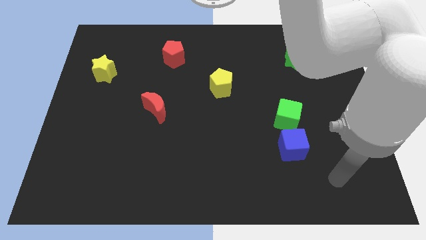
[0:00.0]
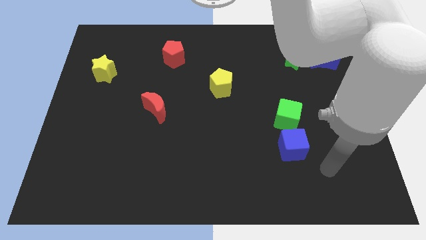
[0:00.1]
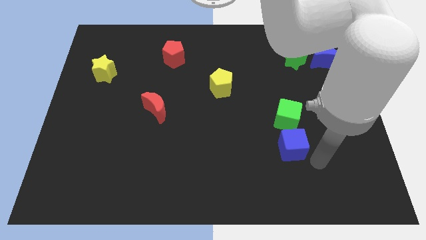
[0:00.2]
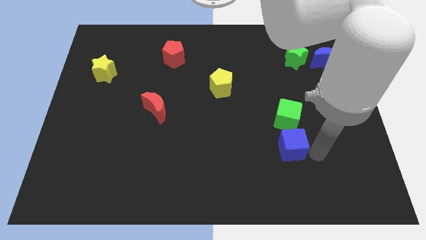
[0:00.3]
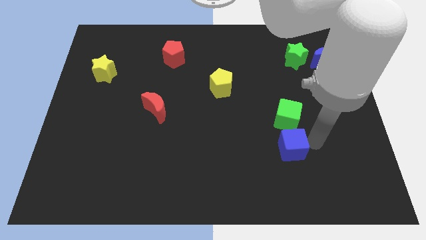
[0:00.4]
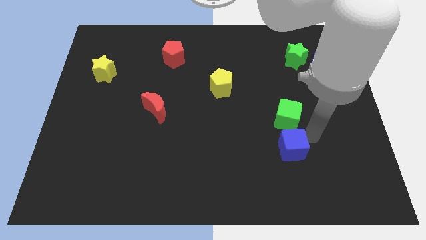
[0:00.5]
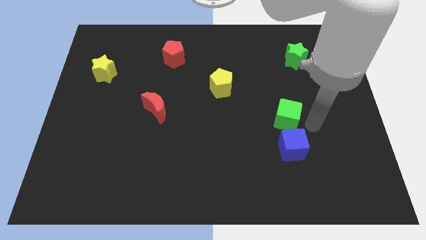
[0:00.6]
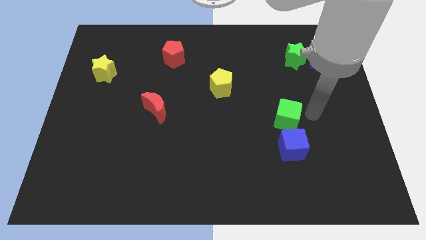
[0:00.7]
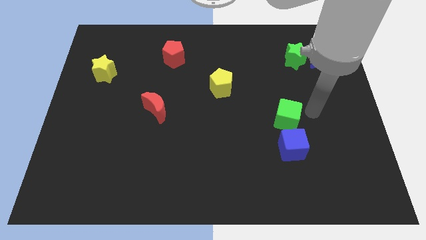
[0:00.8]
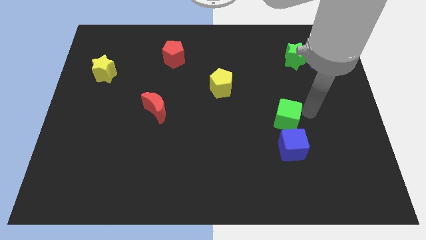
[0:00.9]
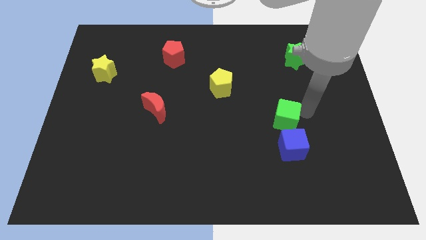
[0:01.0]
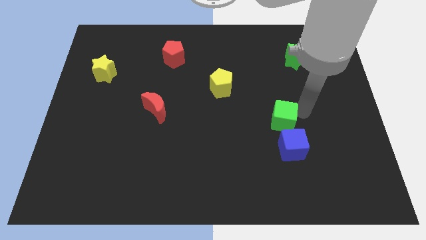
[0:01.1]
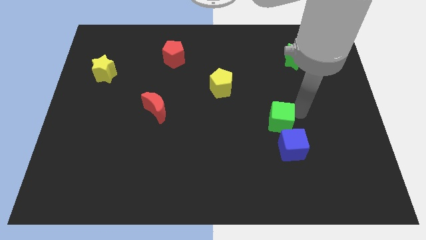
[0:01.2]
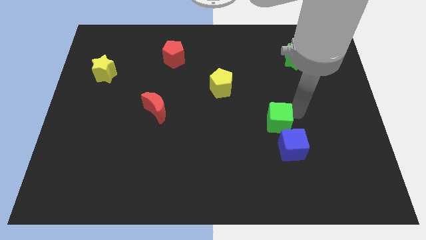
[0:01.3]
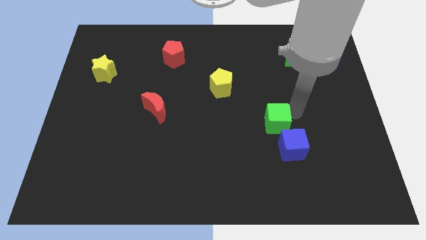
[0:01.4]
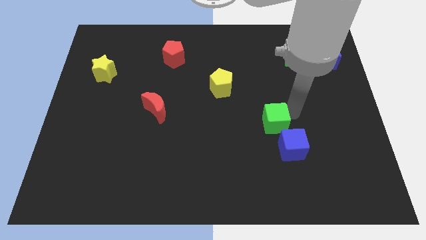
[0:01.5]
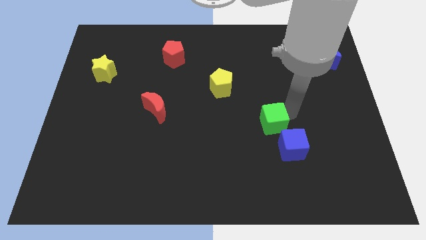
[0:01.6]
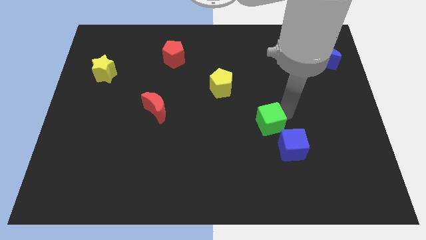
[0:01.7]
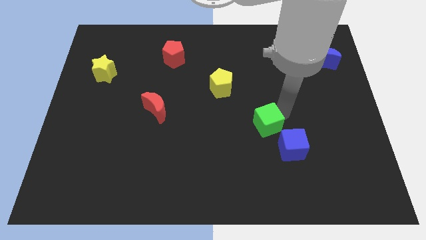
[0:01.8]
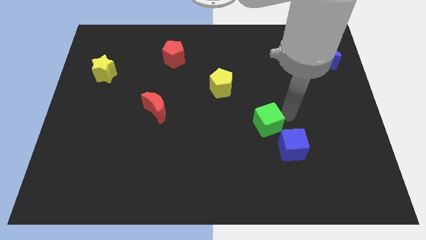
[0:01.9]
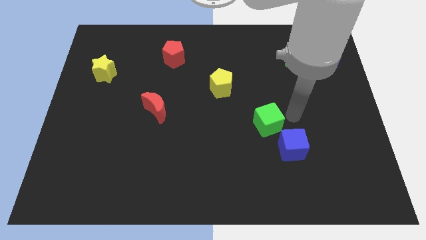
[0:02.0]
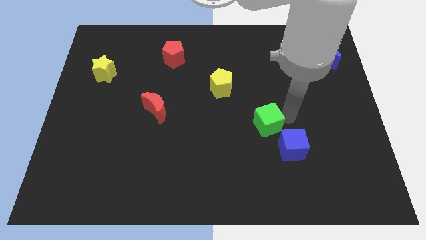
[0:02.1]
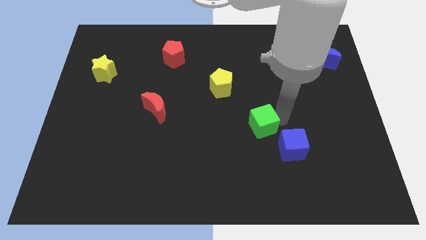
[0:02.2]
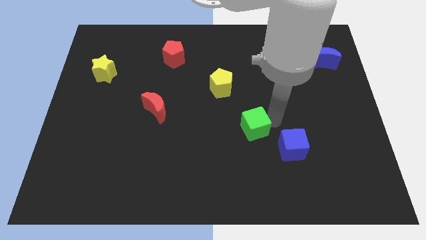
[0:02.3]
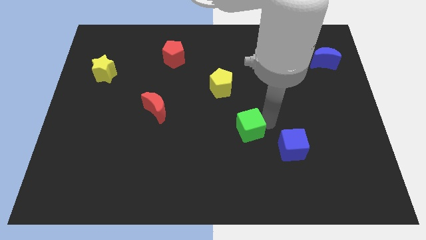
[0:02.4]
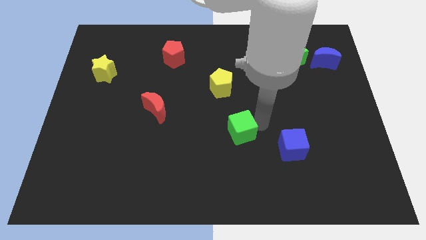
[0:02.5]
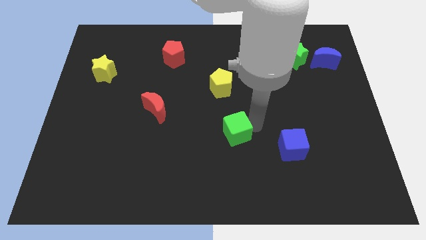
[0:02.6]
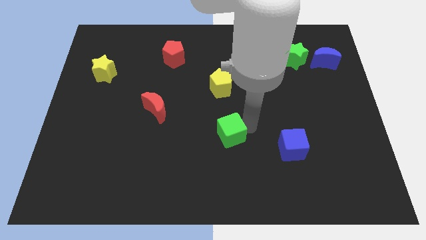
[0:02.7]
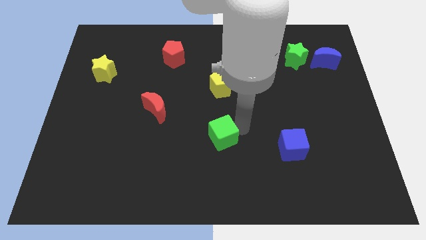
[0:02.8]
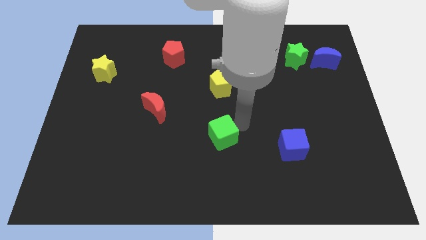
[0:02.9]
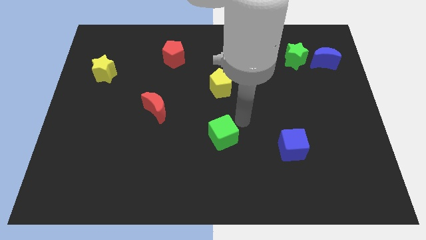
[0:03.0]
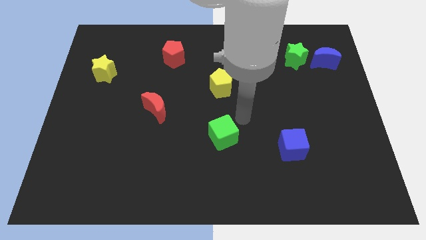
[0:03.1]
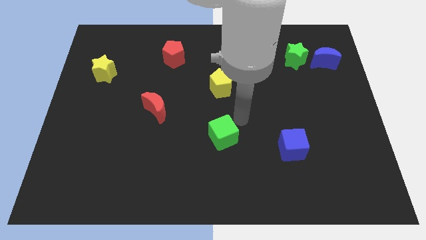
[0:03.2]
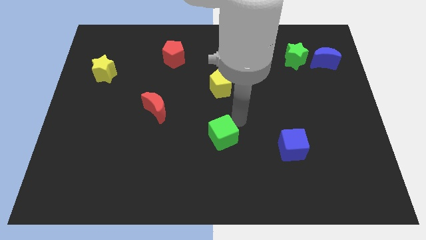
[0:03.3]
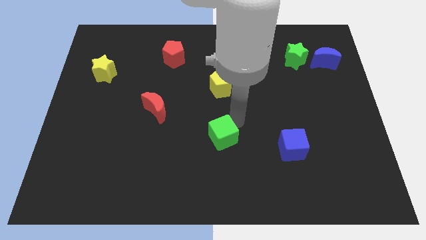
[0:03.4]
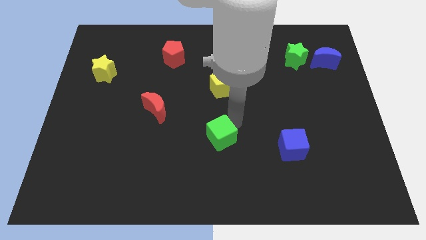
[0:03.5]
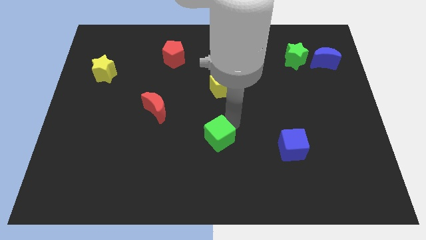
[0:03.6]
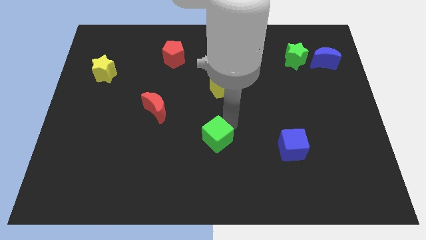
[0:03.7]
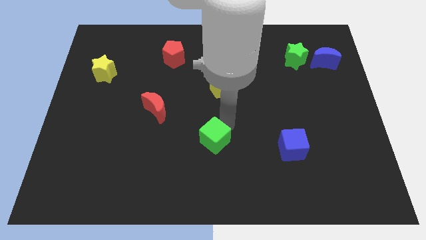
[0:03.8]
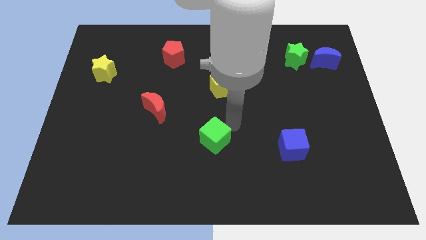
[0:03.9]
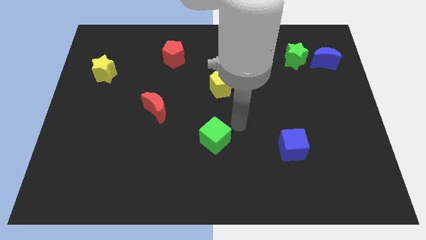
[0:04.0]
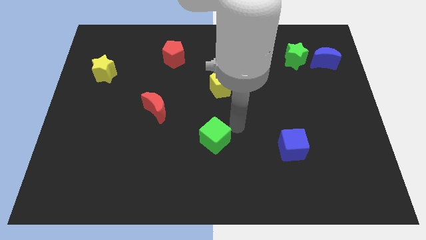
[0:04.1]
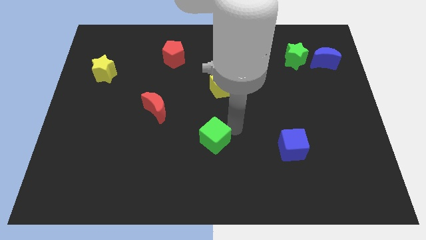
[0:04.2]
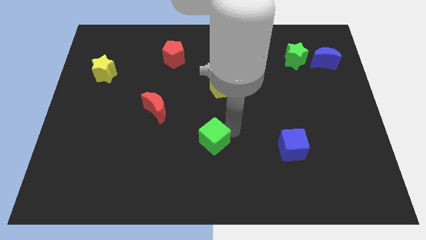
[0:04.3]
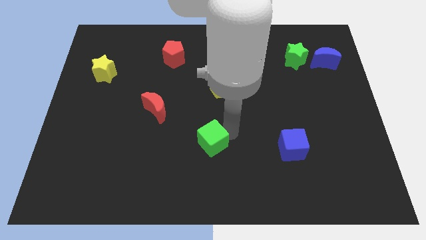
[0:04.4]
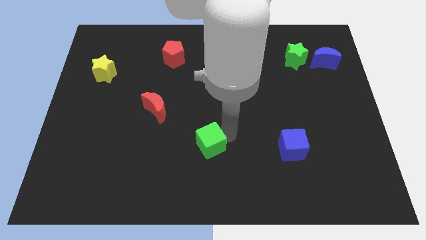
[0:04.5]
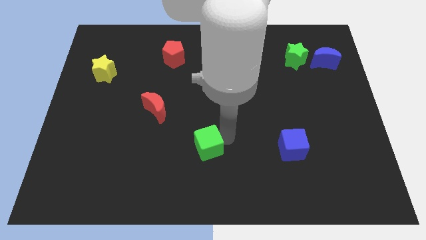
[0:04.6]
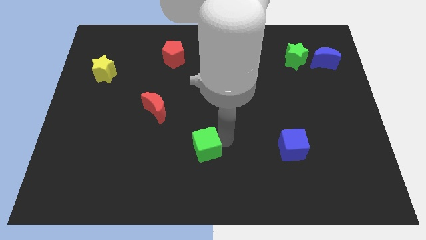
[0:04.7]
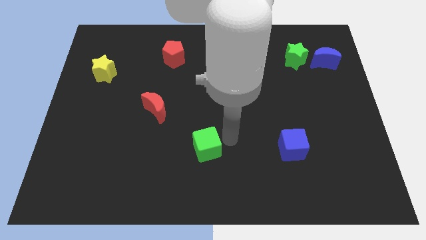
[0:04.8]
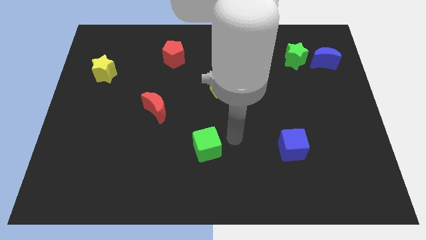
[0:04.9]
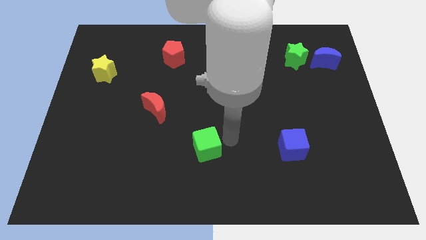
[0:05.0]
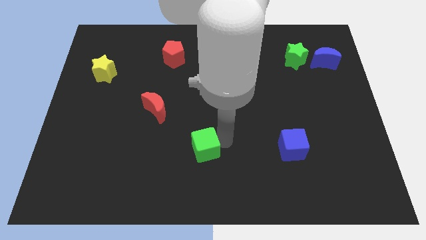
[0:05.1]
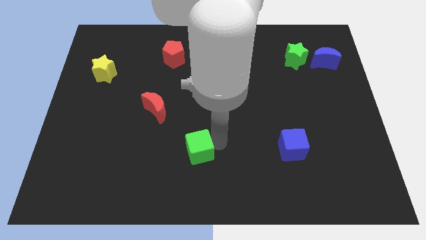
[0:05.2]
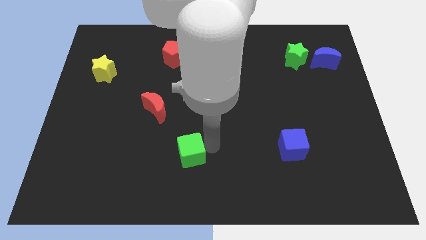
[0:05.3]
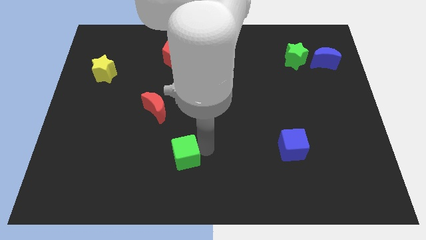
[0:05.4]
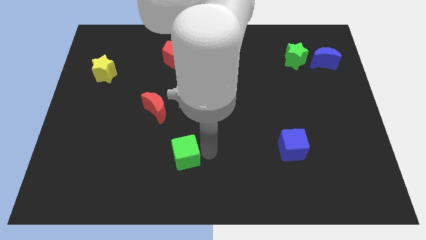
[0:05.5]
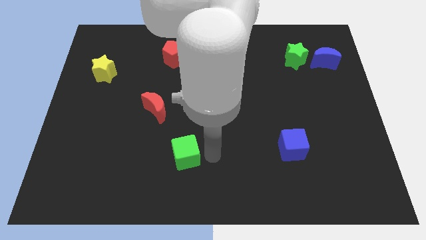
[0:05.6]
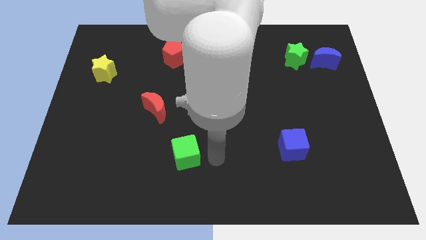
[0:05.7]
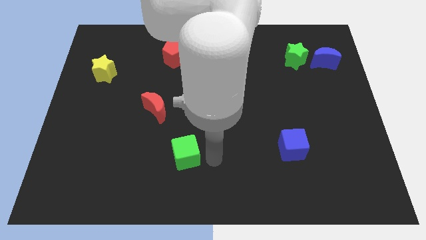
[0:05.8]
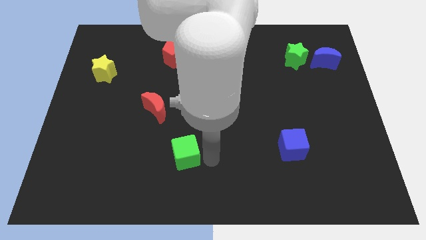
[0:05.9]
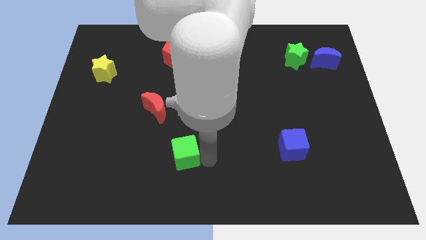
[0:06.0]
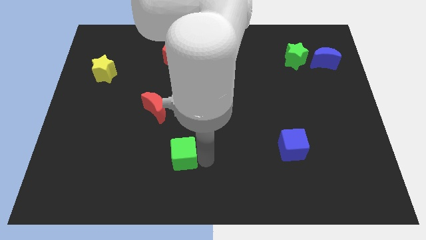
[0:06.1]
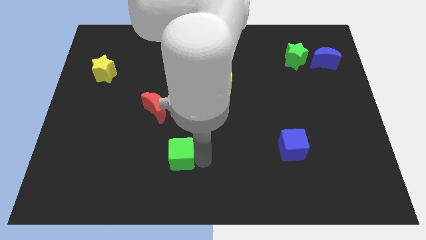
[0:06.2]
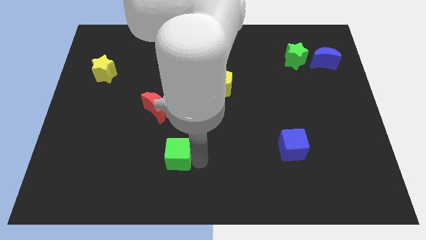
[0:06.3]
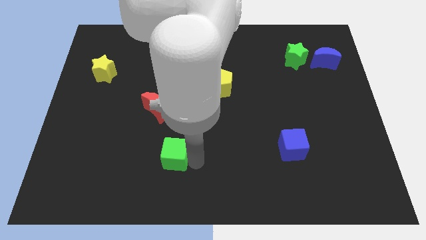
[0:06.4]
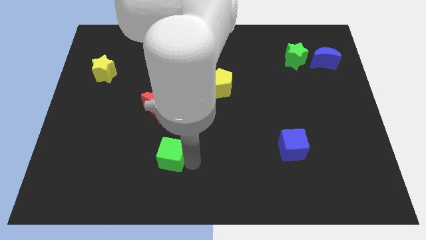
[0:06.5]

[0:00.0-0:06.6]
slide the green cube to the bottom of the red moon

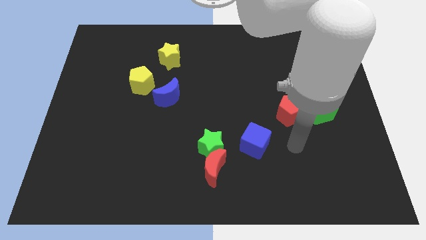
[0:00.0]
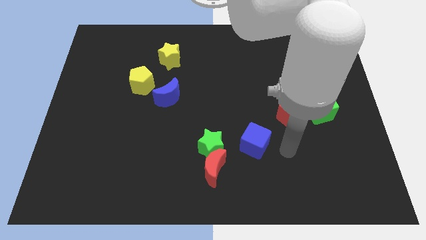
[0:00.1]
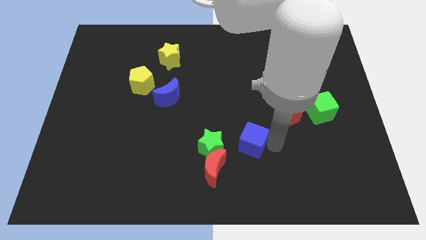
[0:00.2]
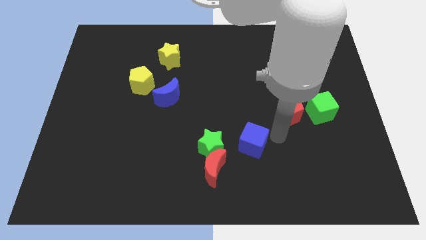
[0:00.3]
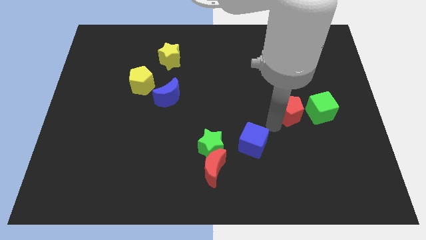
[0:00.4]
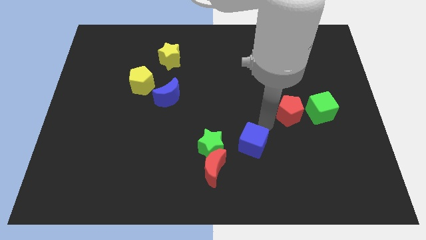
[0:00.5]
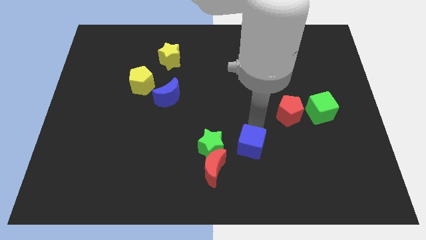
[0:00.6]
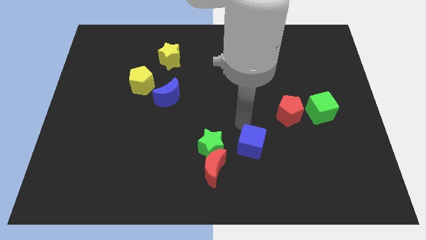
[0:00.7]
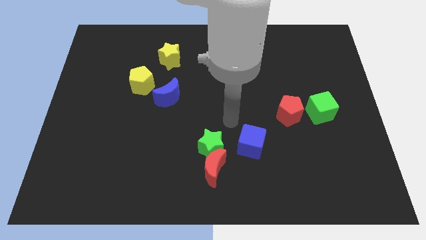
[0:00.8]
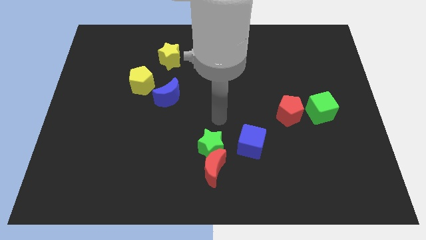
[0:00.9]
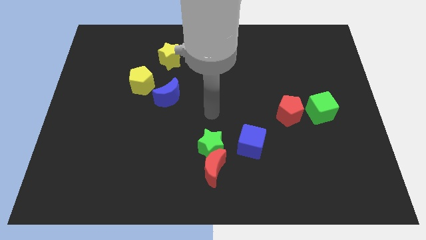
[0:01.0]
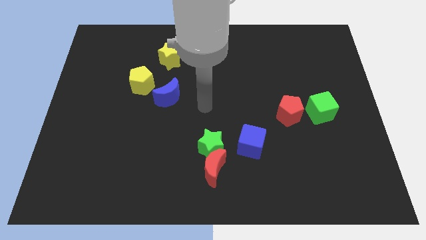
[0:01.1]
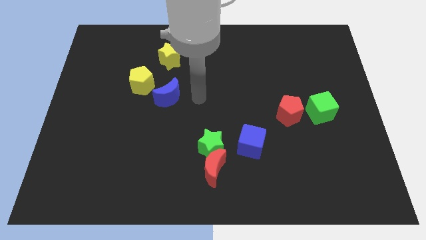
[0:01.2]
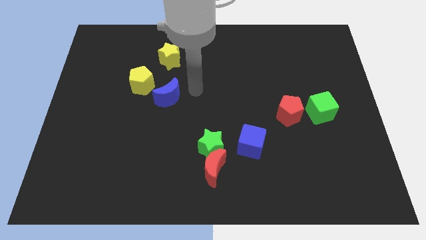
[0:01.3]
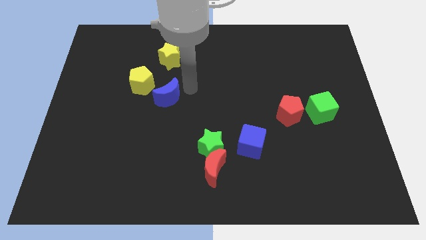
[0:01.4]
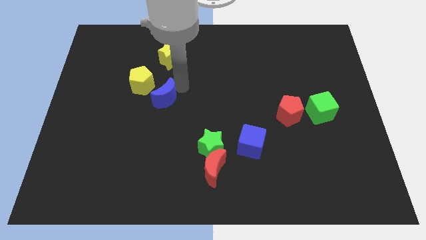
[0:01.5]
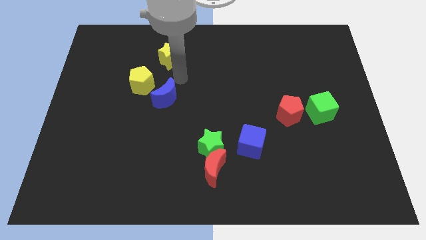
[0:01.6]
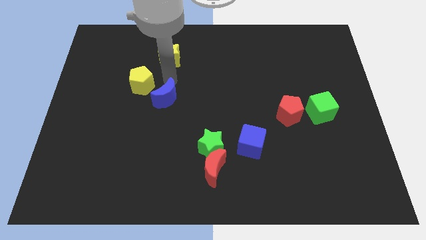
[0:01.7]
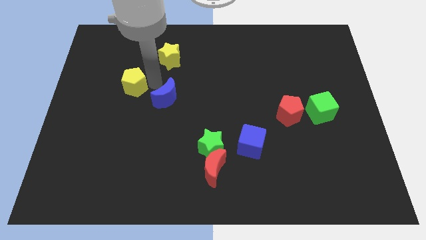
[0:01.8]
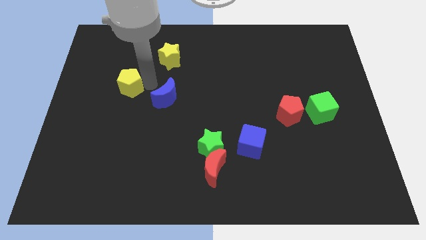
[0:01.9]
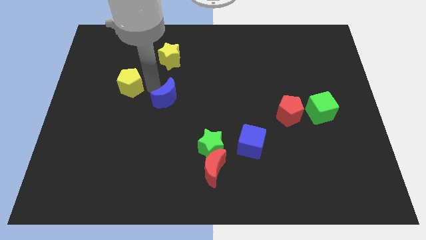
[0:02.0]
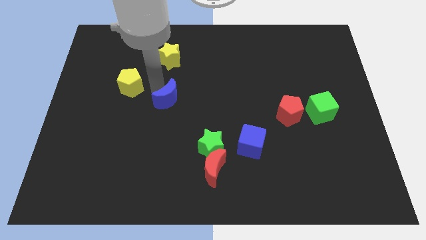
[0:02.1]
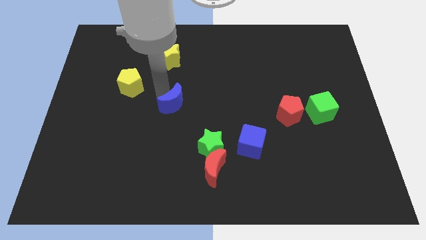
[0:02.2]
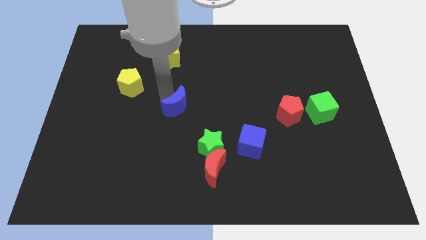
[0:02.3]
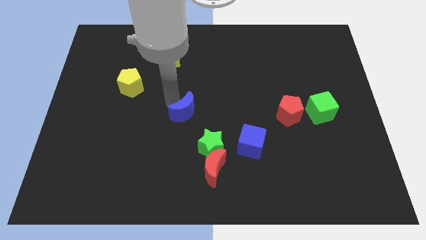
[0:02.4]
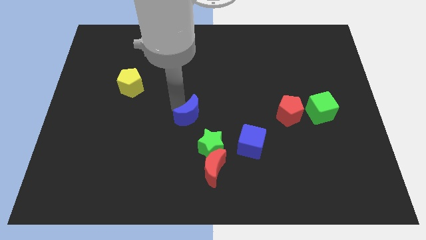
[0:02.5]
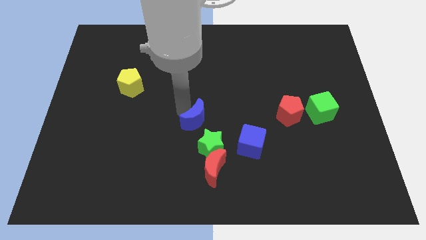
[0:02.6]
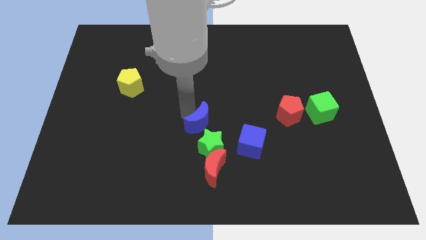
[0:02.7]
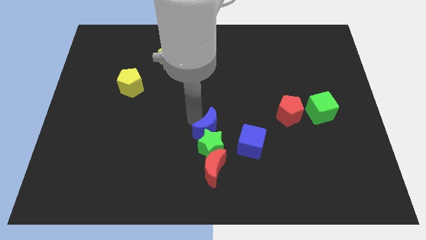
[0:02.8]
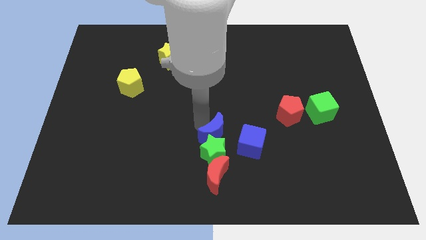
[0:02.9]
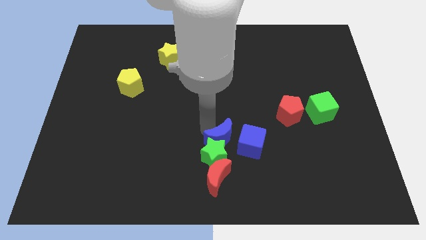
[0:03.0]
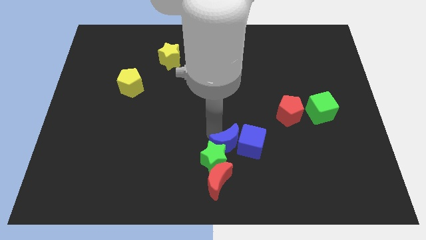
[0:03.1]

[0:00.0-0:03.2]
move the blue moon to the top right of the red moon
